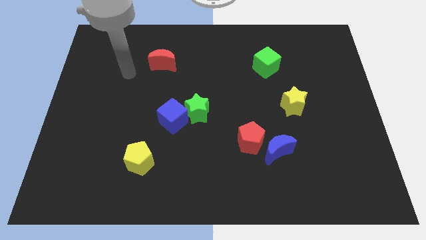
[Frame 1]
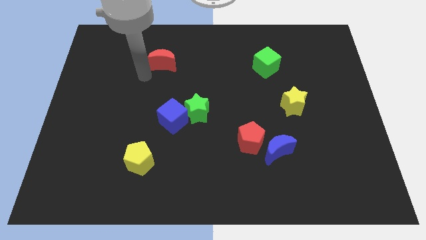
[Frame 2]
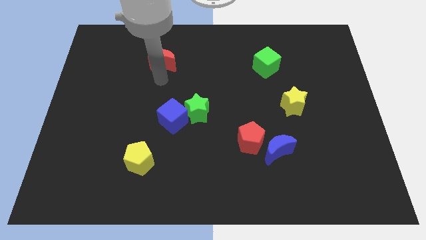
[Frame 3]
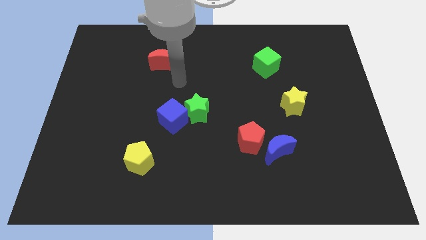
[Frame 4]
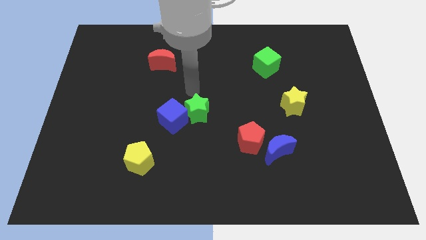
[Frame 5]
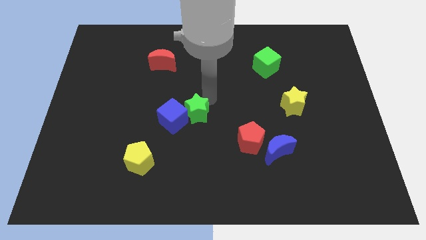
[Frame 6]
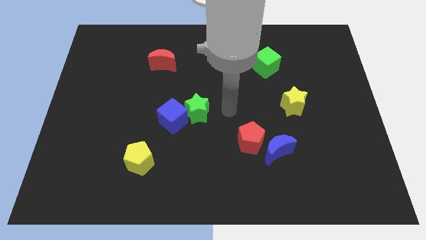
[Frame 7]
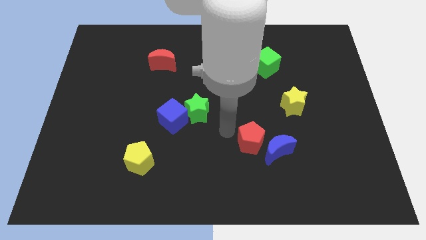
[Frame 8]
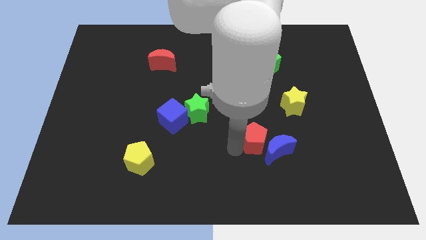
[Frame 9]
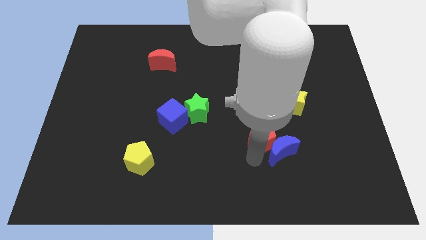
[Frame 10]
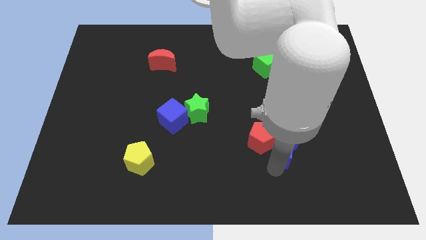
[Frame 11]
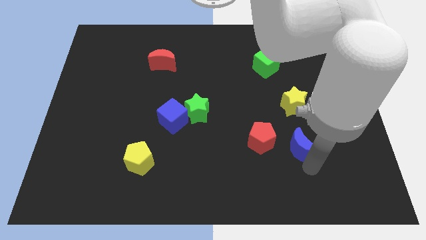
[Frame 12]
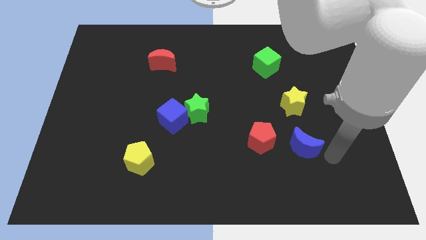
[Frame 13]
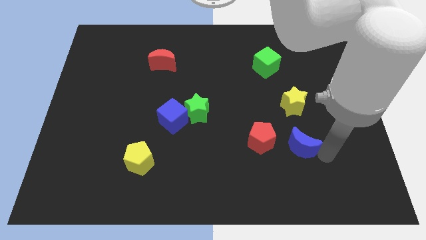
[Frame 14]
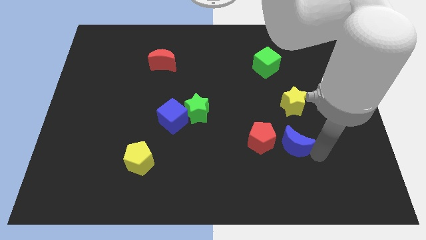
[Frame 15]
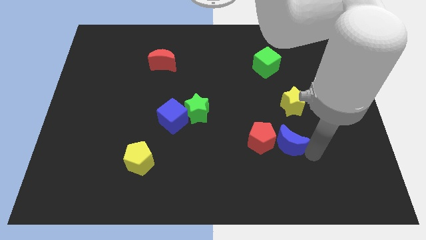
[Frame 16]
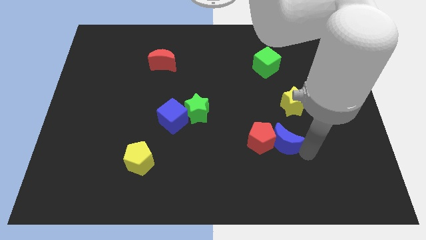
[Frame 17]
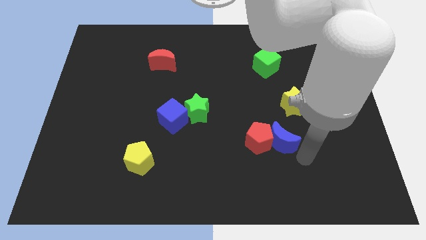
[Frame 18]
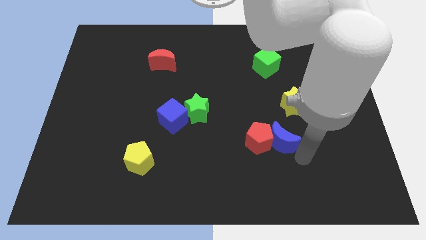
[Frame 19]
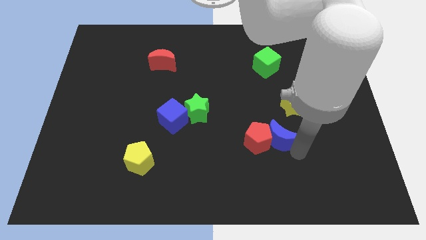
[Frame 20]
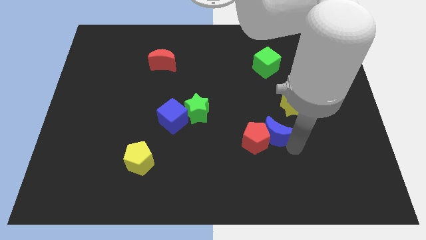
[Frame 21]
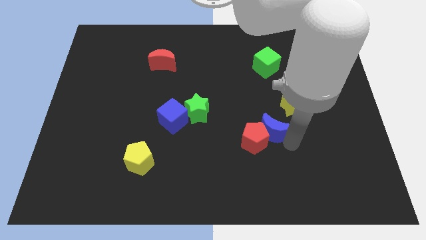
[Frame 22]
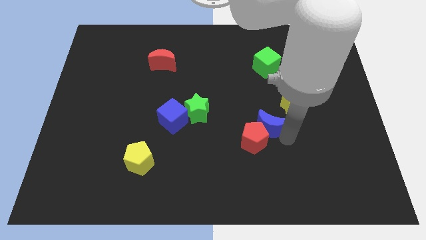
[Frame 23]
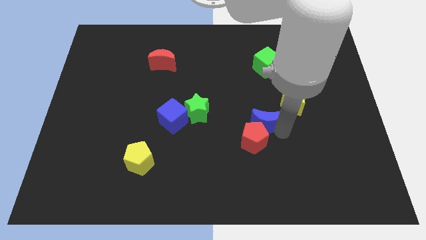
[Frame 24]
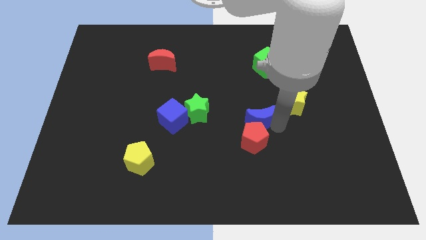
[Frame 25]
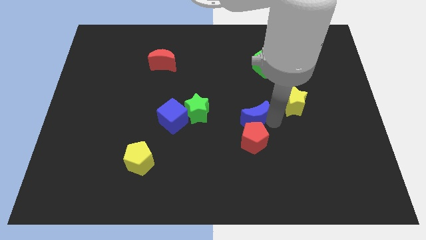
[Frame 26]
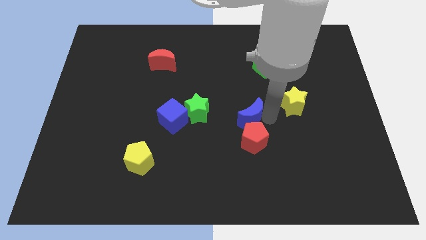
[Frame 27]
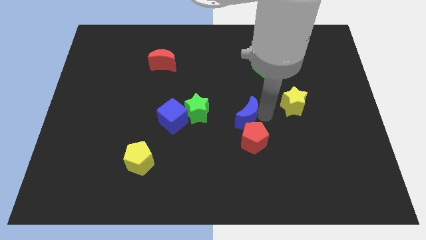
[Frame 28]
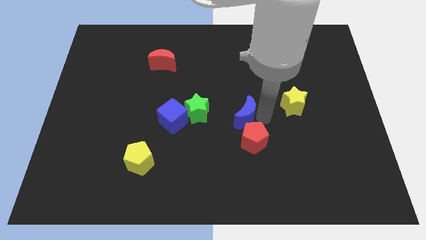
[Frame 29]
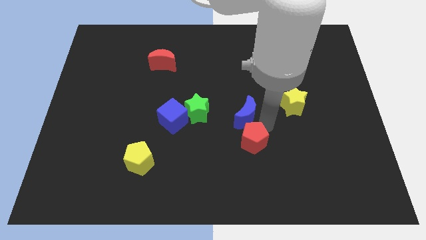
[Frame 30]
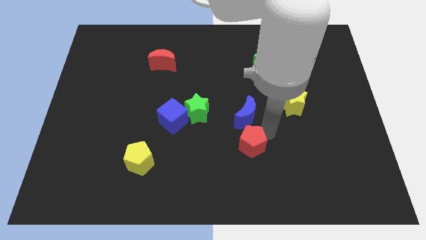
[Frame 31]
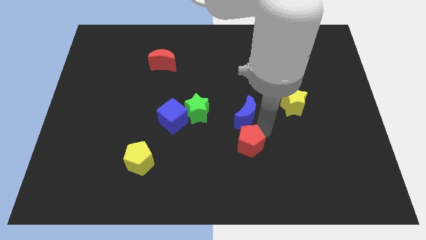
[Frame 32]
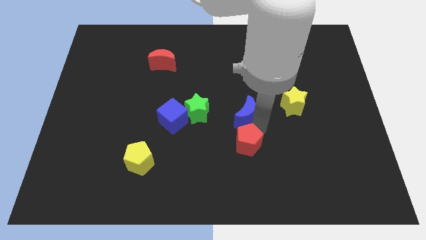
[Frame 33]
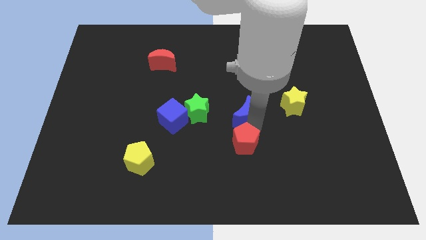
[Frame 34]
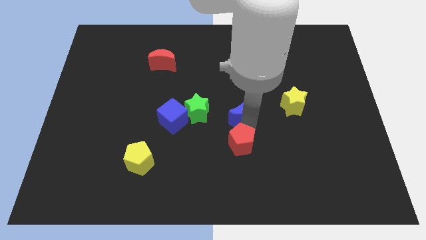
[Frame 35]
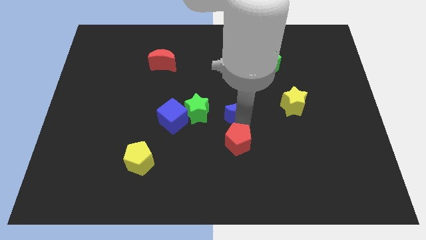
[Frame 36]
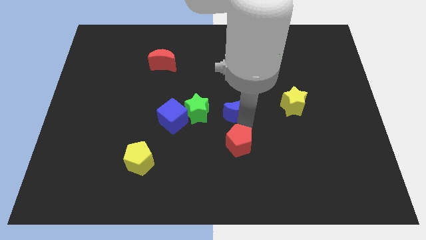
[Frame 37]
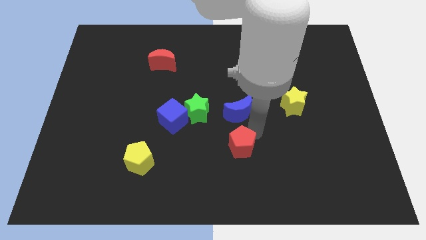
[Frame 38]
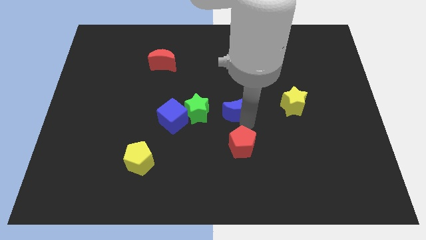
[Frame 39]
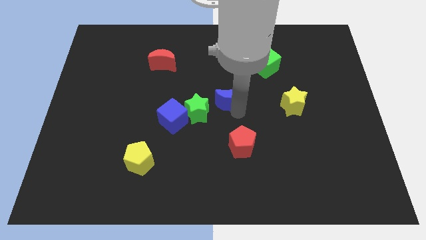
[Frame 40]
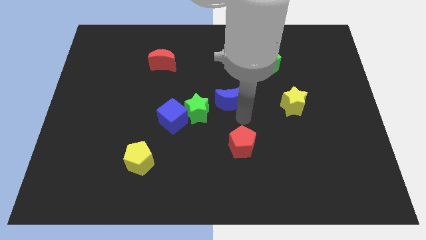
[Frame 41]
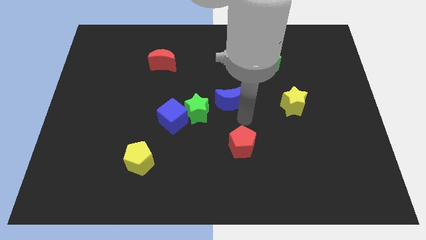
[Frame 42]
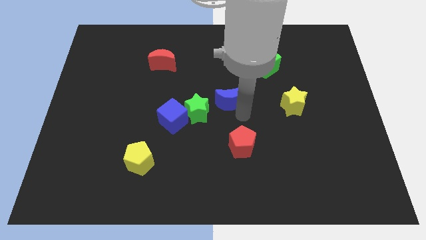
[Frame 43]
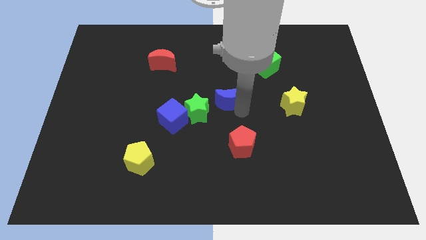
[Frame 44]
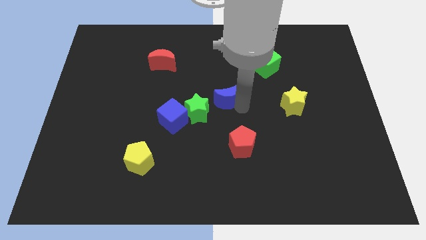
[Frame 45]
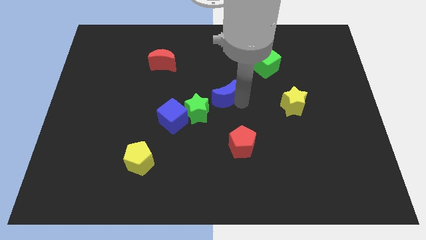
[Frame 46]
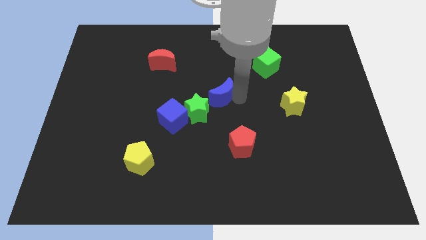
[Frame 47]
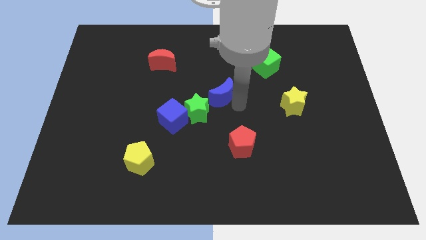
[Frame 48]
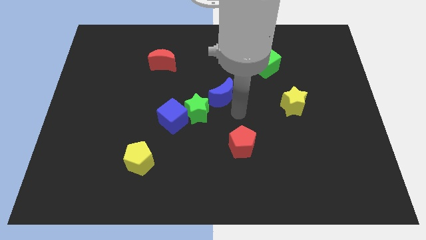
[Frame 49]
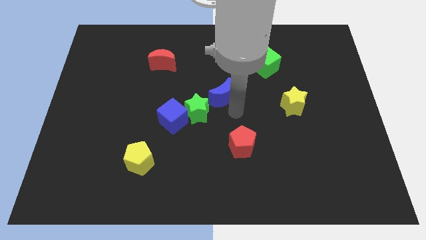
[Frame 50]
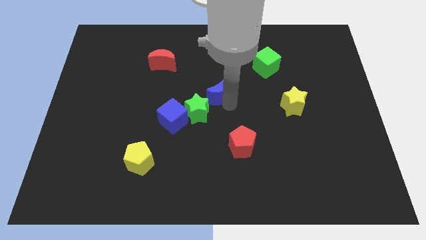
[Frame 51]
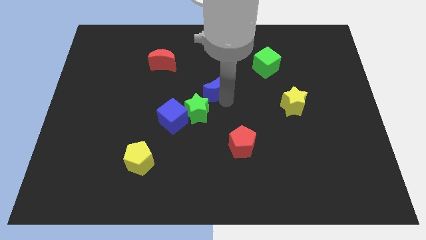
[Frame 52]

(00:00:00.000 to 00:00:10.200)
move the blue moon up and to the left diagonally

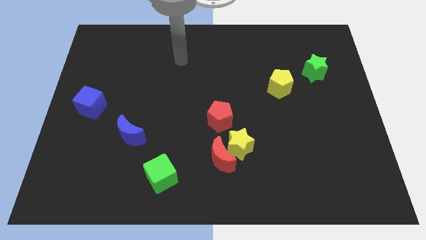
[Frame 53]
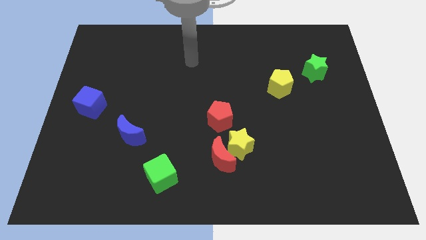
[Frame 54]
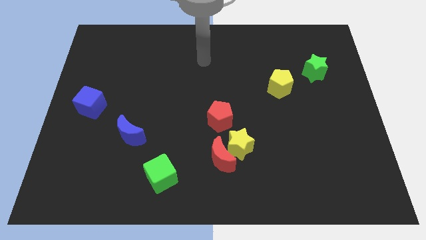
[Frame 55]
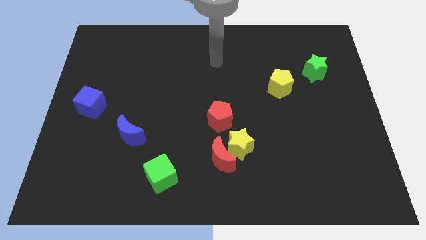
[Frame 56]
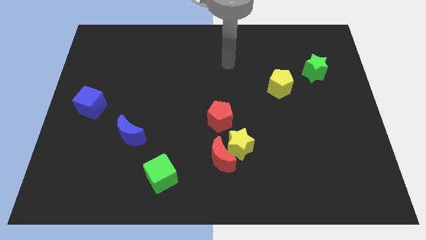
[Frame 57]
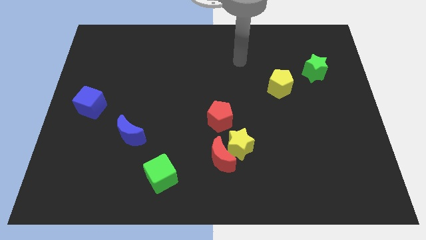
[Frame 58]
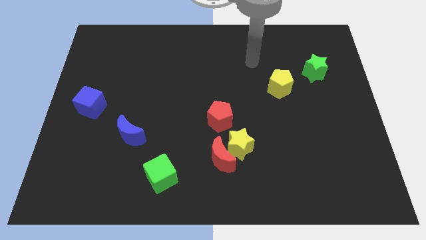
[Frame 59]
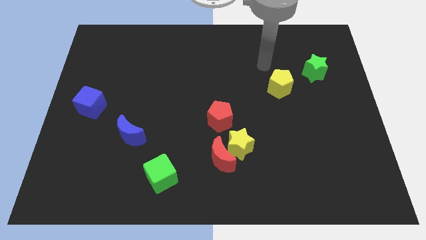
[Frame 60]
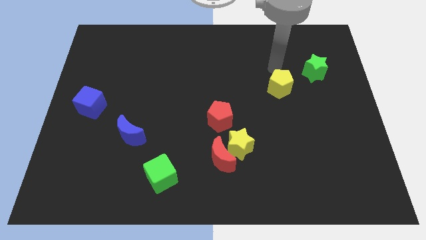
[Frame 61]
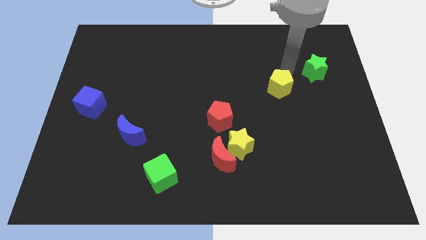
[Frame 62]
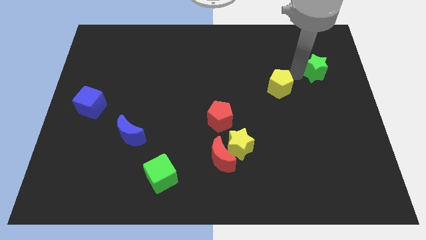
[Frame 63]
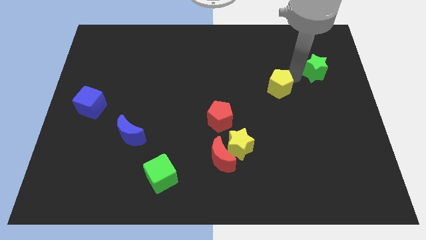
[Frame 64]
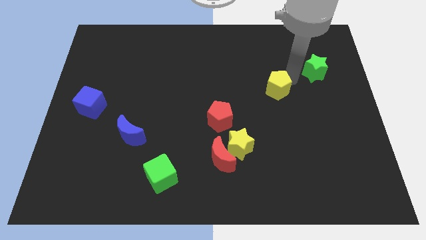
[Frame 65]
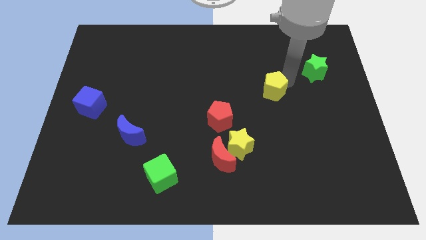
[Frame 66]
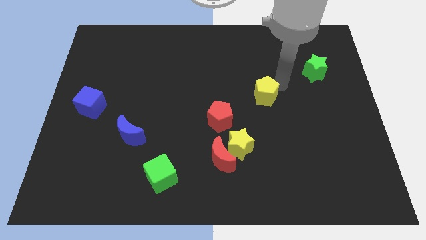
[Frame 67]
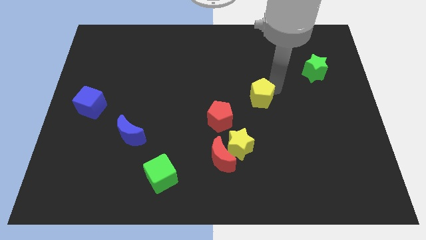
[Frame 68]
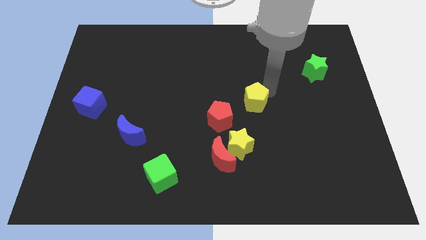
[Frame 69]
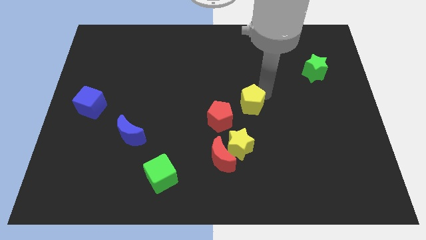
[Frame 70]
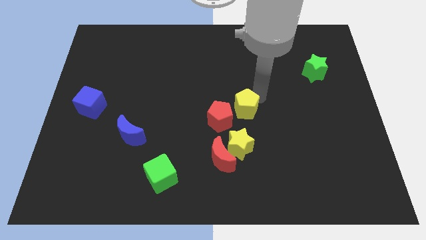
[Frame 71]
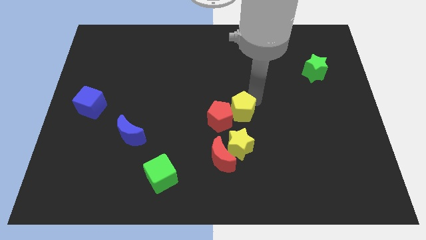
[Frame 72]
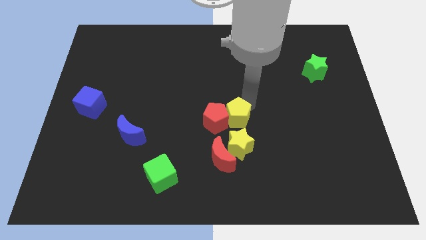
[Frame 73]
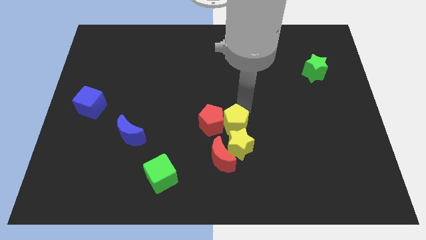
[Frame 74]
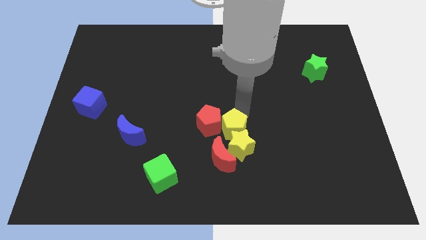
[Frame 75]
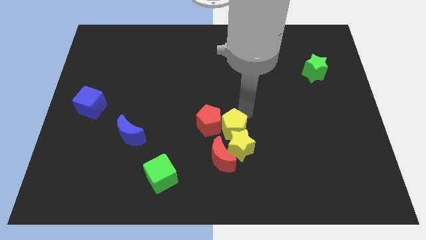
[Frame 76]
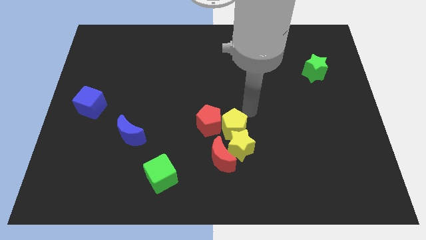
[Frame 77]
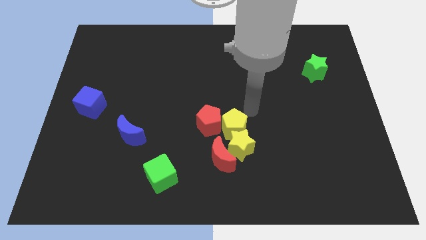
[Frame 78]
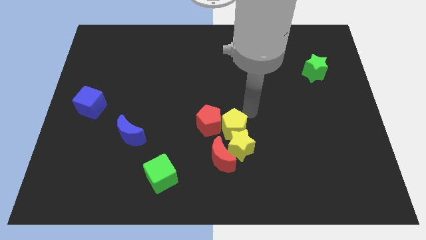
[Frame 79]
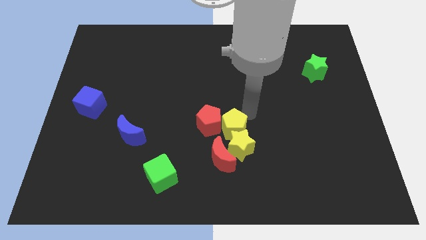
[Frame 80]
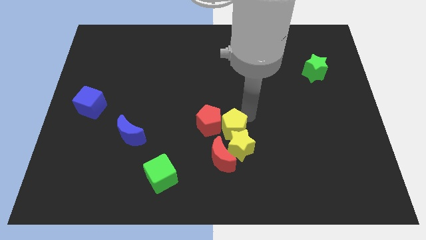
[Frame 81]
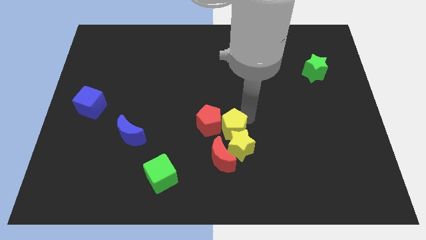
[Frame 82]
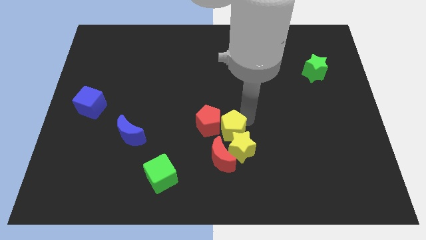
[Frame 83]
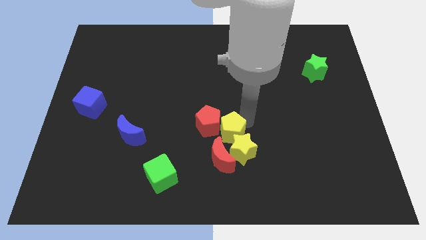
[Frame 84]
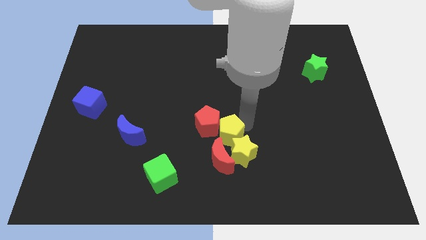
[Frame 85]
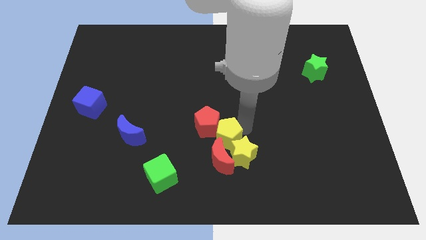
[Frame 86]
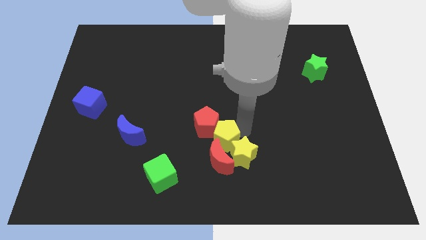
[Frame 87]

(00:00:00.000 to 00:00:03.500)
move the yellow pentagon diagonally down and left
